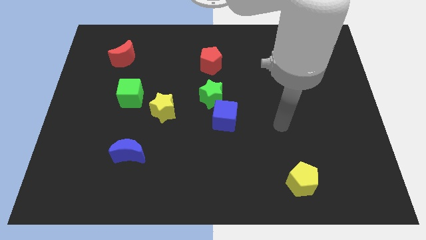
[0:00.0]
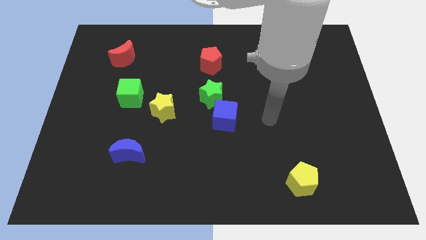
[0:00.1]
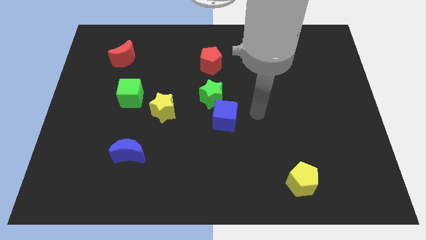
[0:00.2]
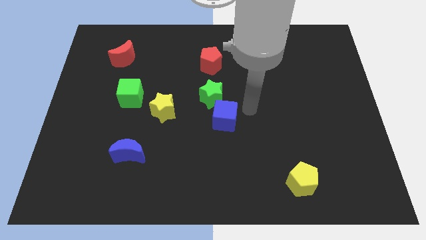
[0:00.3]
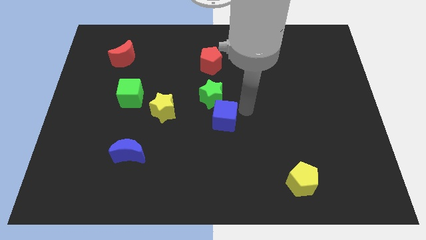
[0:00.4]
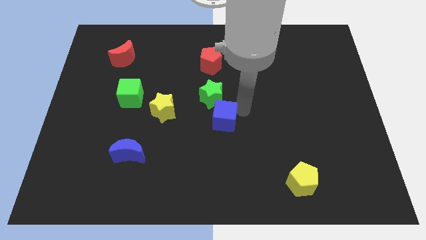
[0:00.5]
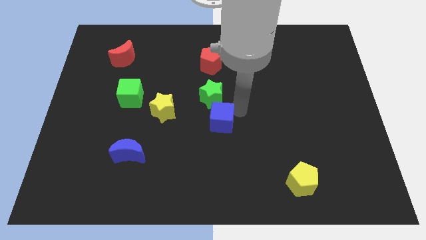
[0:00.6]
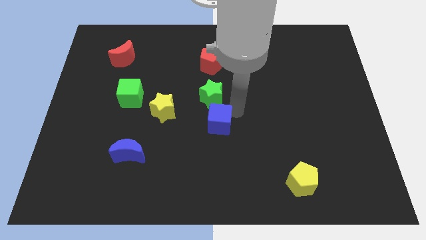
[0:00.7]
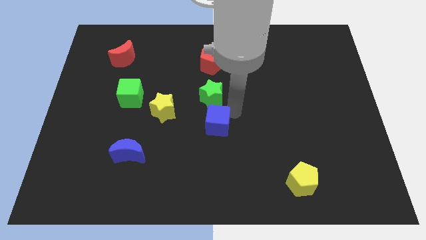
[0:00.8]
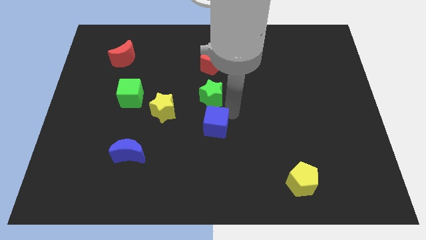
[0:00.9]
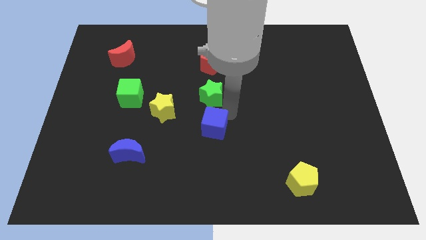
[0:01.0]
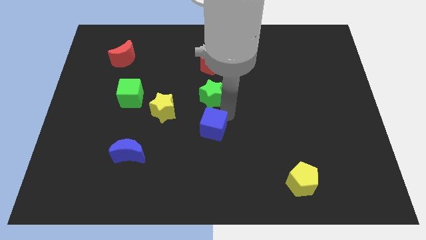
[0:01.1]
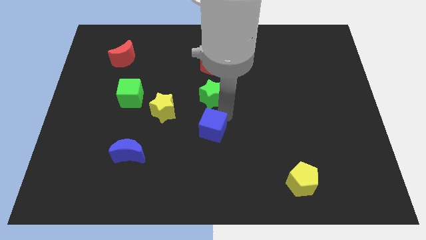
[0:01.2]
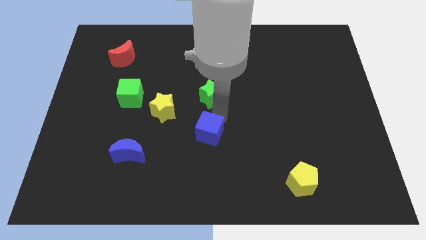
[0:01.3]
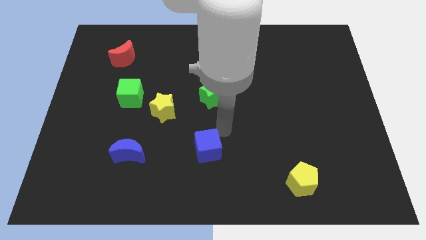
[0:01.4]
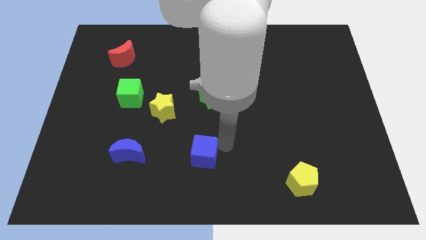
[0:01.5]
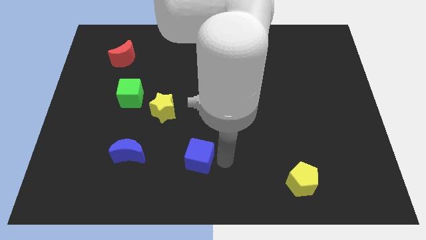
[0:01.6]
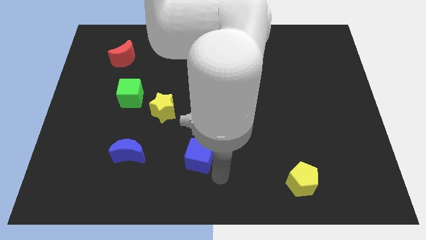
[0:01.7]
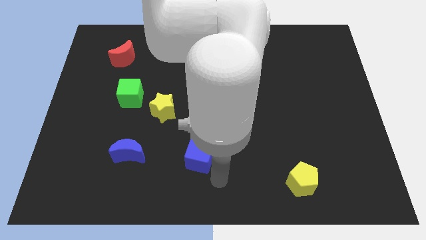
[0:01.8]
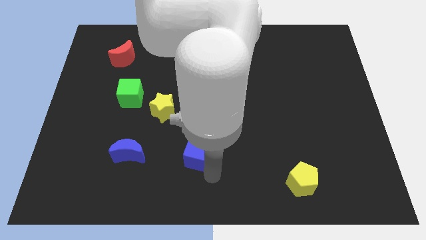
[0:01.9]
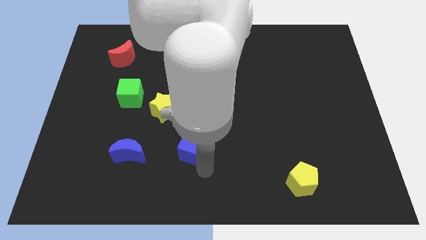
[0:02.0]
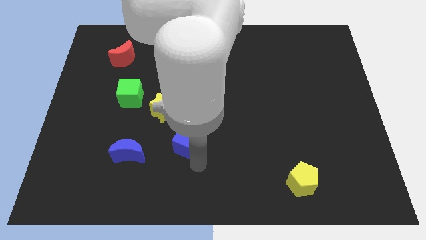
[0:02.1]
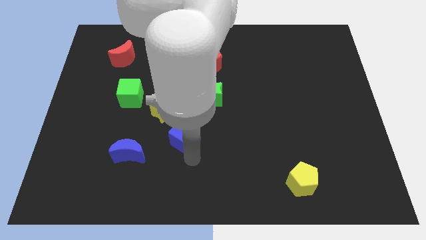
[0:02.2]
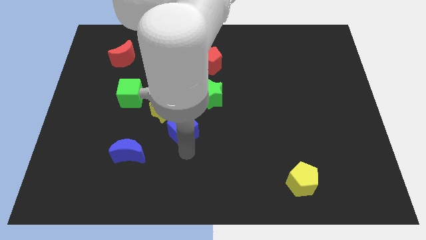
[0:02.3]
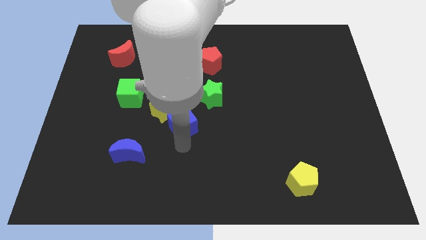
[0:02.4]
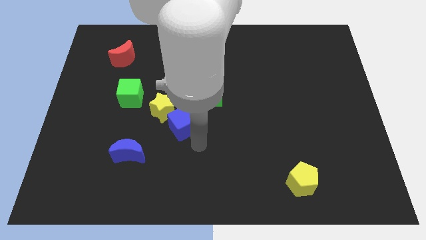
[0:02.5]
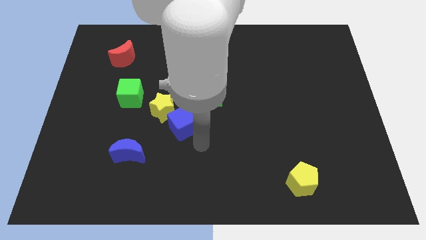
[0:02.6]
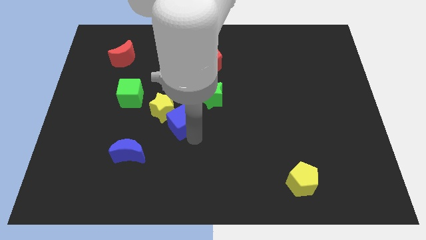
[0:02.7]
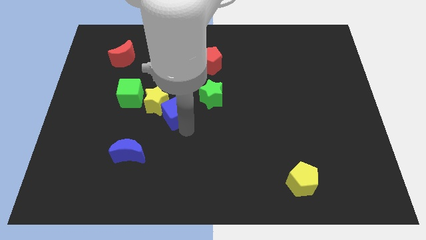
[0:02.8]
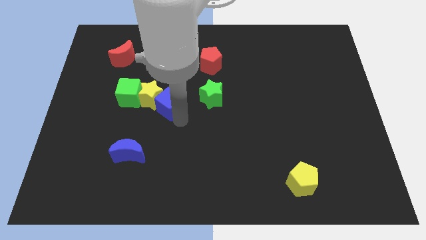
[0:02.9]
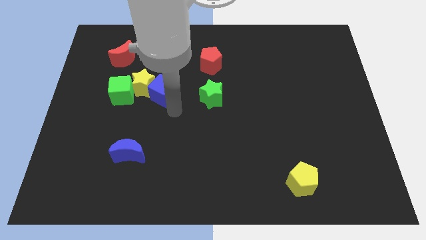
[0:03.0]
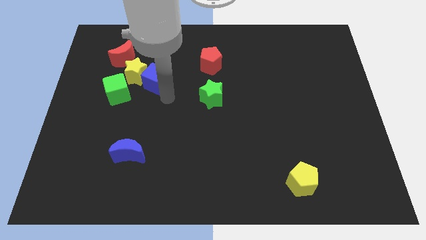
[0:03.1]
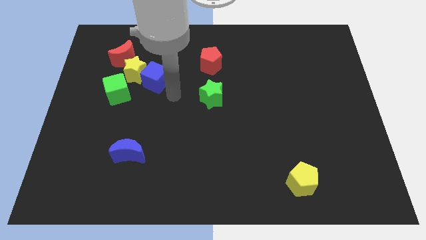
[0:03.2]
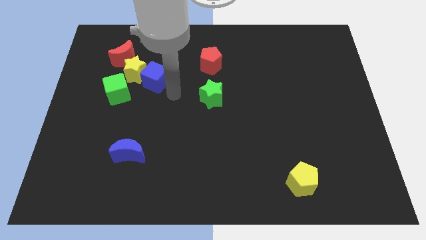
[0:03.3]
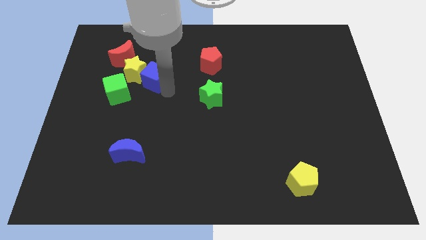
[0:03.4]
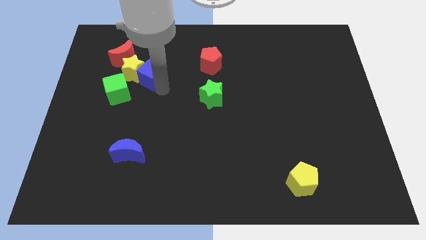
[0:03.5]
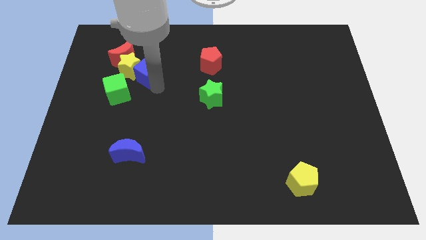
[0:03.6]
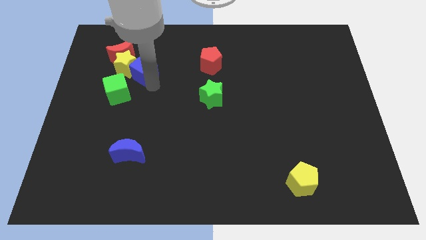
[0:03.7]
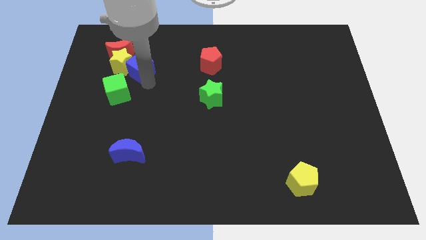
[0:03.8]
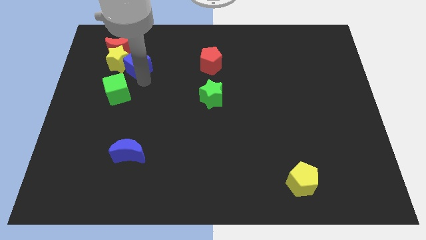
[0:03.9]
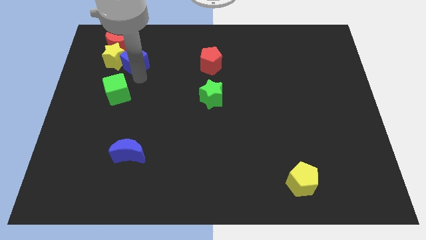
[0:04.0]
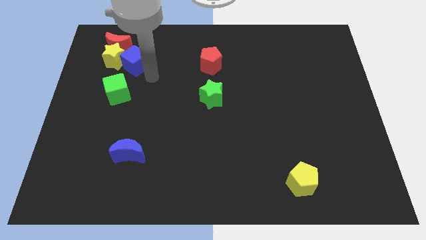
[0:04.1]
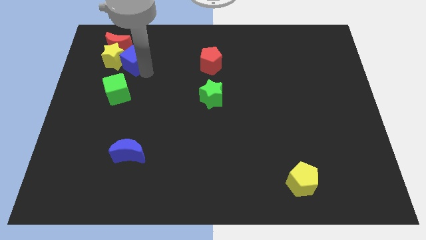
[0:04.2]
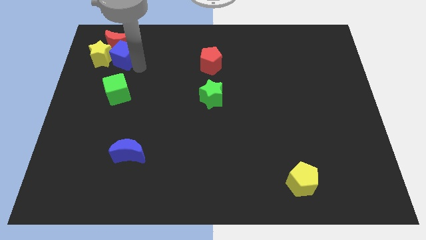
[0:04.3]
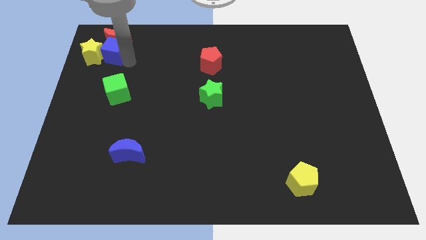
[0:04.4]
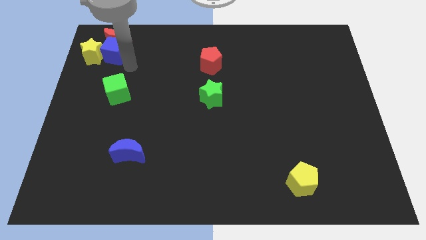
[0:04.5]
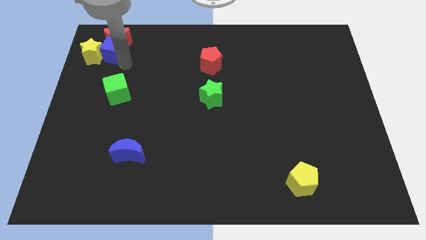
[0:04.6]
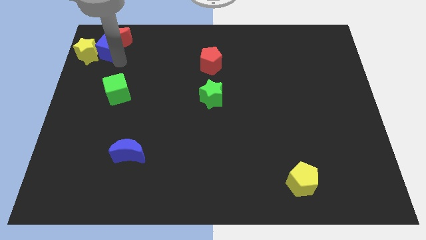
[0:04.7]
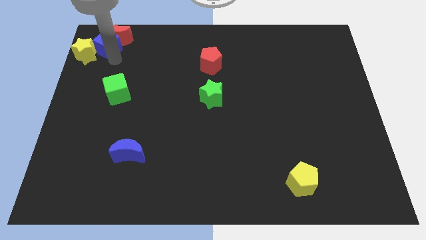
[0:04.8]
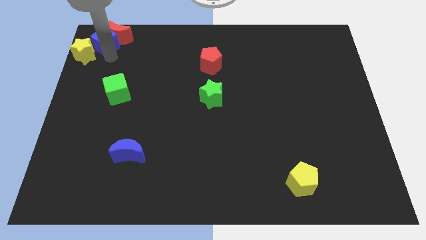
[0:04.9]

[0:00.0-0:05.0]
put the blue cube to the top left corner

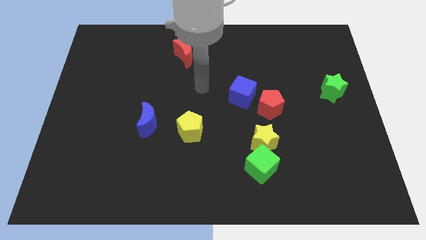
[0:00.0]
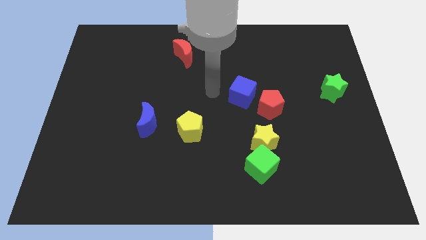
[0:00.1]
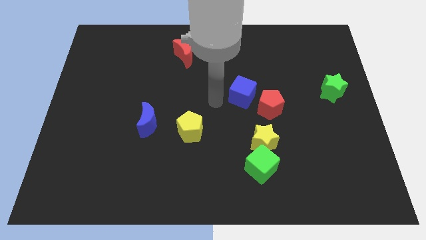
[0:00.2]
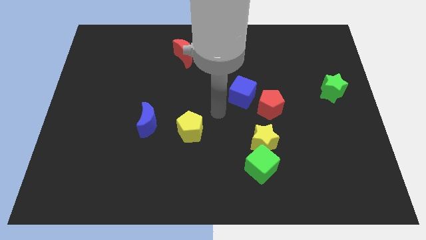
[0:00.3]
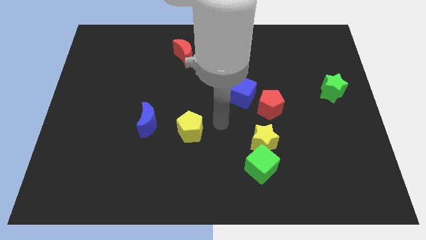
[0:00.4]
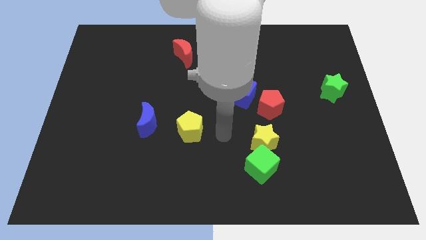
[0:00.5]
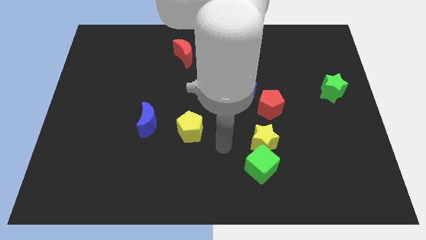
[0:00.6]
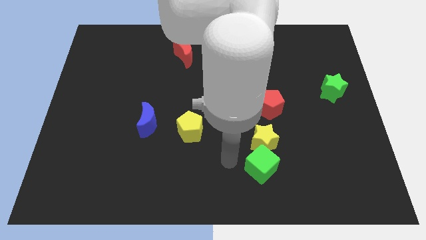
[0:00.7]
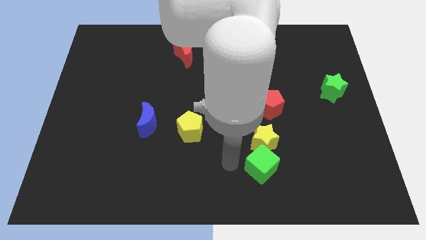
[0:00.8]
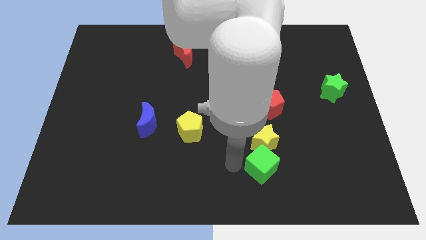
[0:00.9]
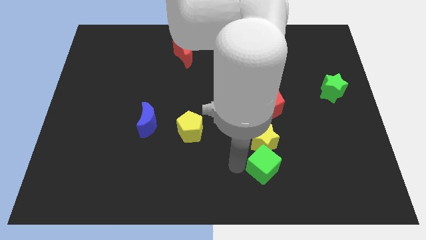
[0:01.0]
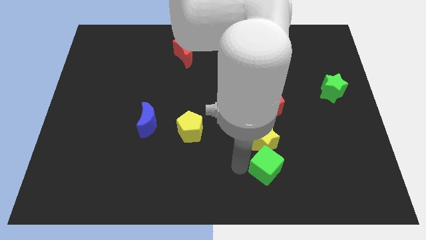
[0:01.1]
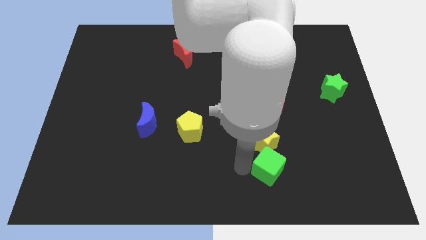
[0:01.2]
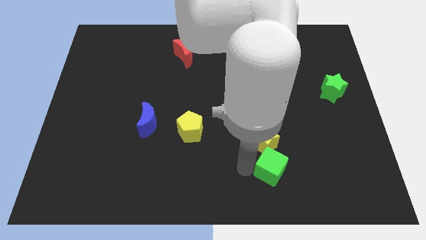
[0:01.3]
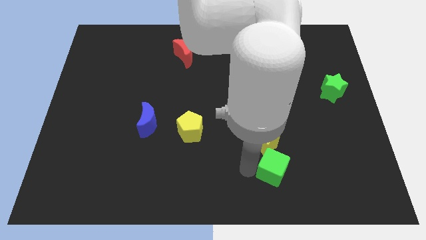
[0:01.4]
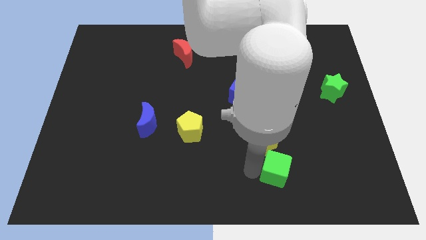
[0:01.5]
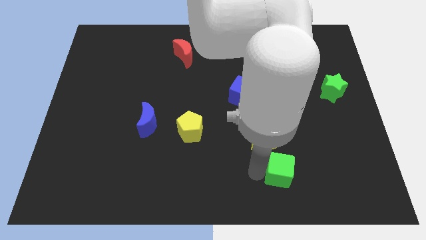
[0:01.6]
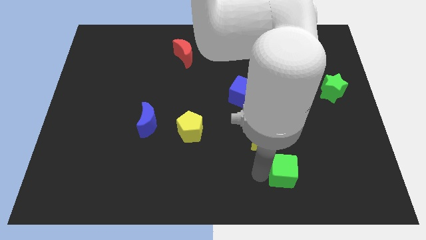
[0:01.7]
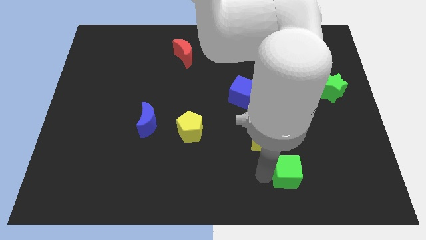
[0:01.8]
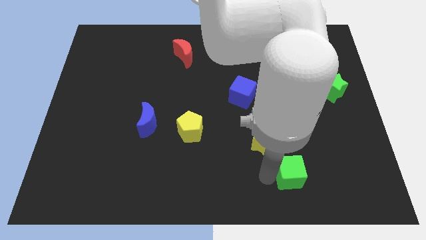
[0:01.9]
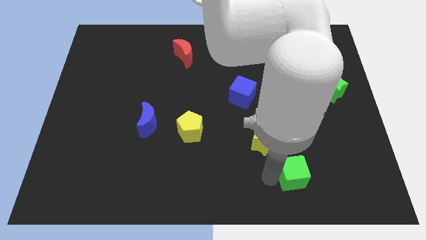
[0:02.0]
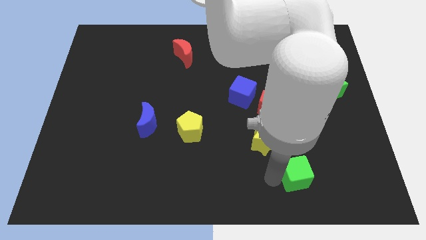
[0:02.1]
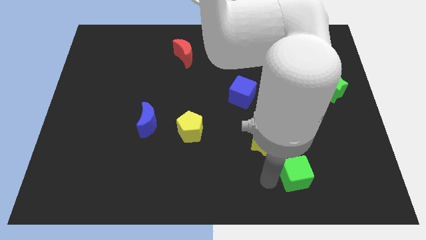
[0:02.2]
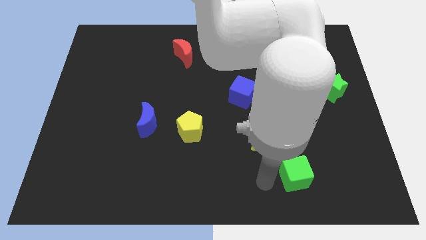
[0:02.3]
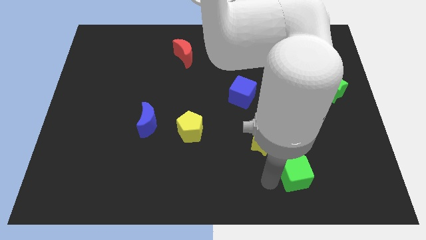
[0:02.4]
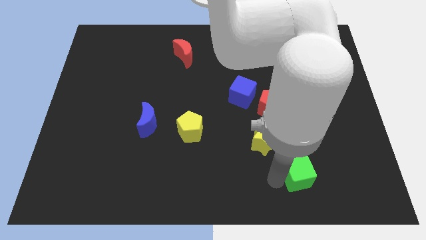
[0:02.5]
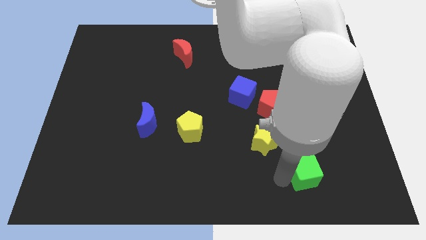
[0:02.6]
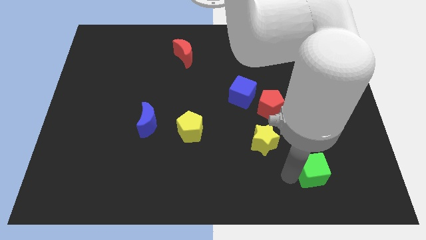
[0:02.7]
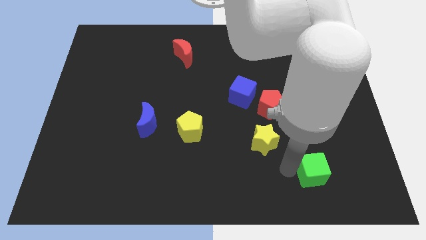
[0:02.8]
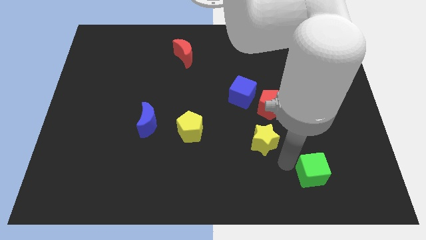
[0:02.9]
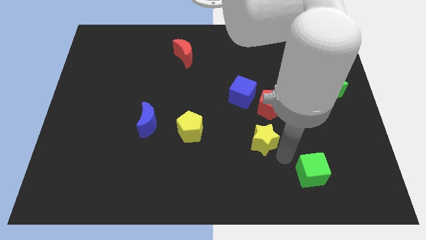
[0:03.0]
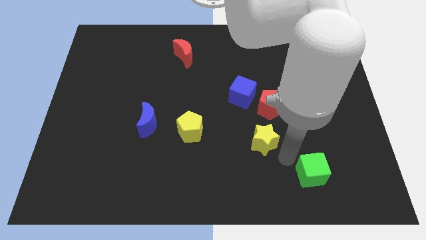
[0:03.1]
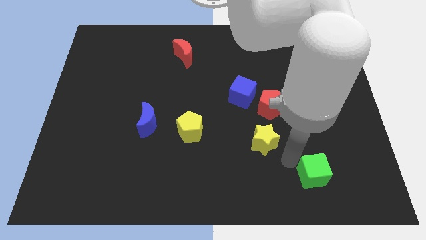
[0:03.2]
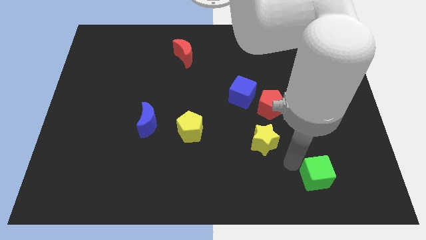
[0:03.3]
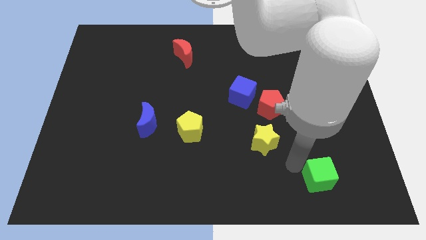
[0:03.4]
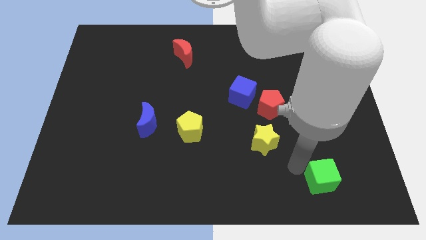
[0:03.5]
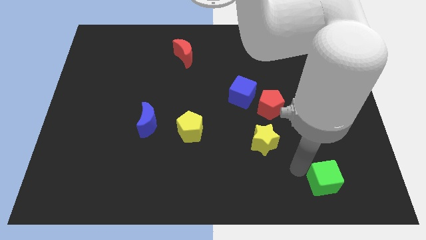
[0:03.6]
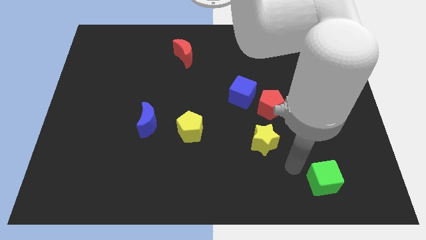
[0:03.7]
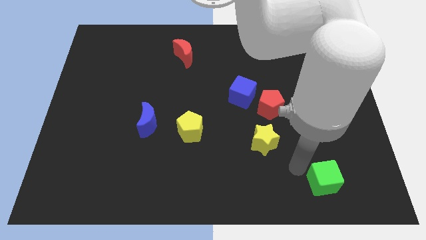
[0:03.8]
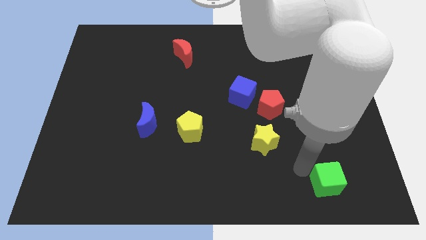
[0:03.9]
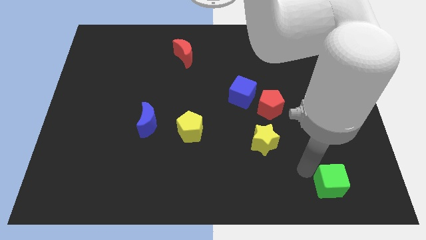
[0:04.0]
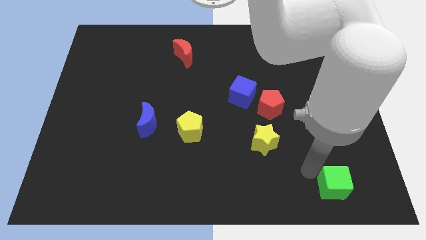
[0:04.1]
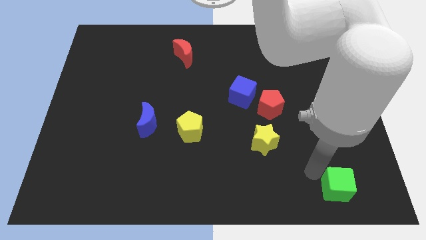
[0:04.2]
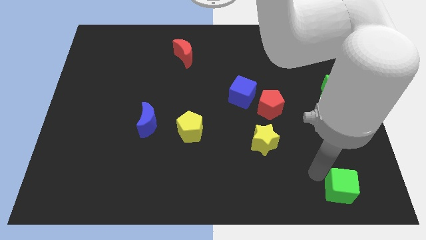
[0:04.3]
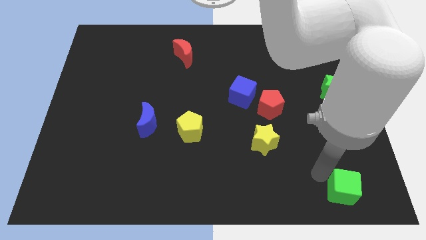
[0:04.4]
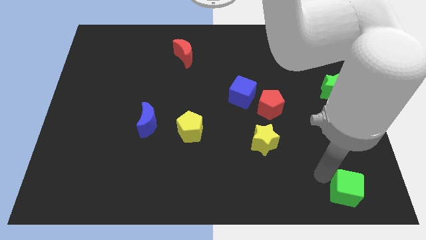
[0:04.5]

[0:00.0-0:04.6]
slide the green cube to the bottom right
